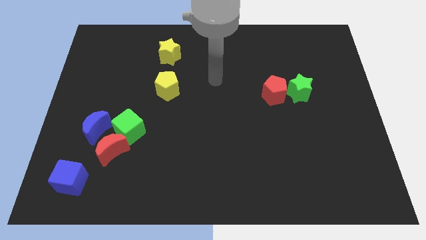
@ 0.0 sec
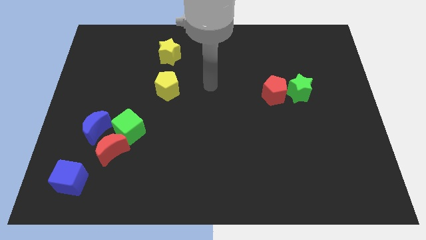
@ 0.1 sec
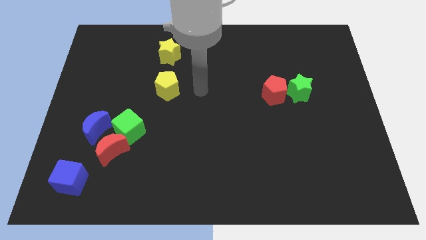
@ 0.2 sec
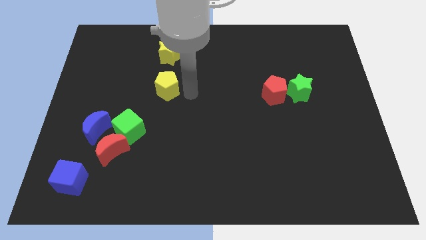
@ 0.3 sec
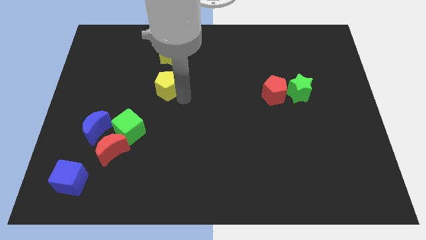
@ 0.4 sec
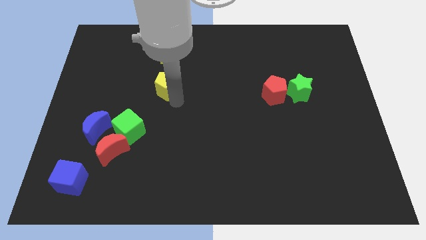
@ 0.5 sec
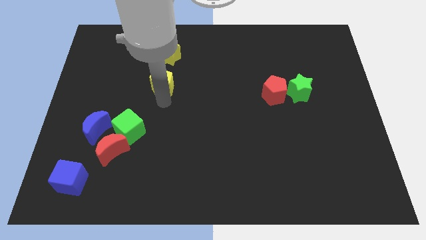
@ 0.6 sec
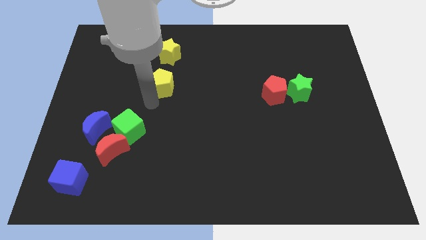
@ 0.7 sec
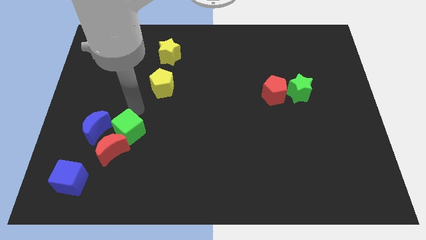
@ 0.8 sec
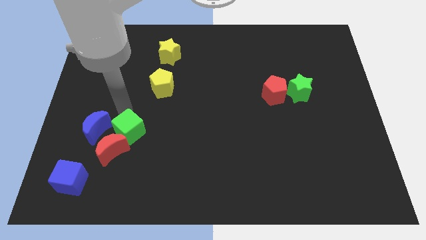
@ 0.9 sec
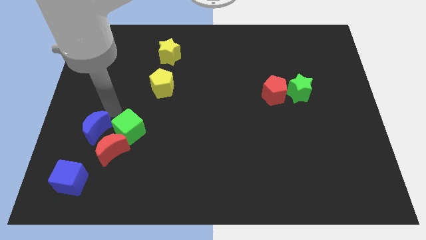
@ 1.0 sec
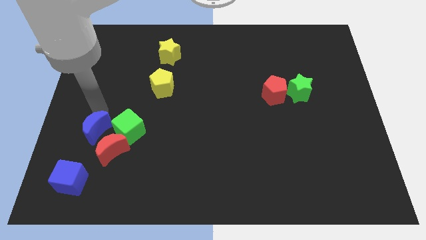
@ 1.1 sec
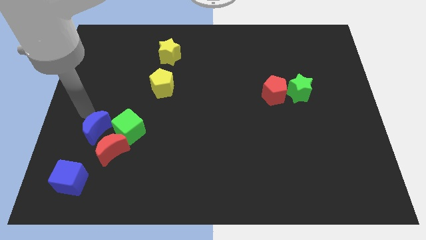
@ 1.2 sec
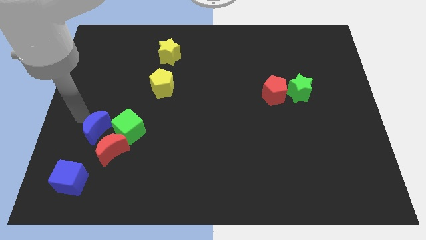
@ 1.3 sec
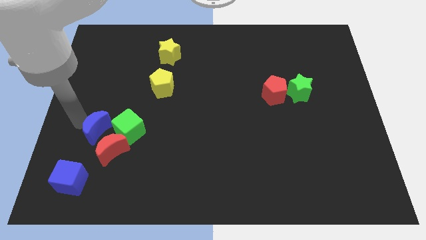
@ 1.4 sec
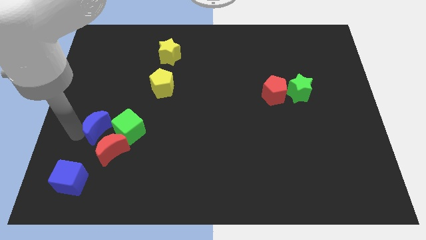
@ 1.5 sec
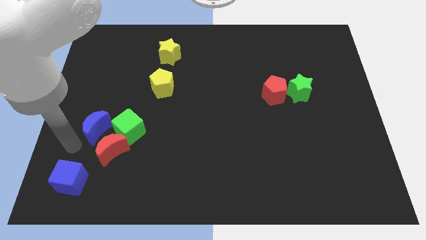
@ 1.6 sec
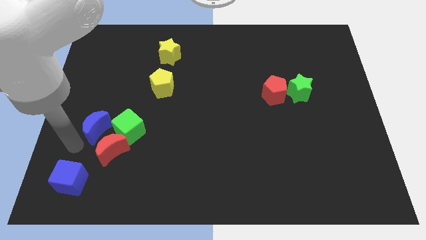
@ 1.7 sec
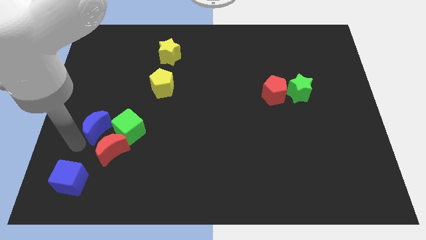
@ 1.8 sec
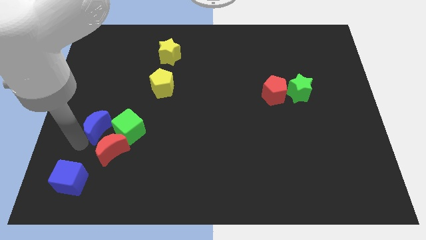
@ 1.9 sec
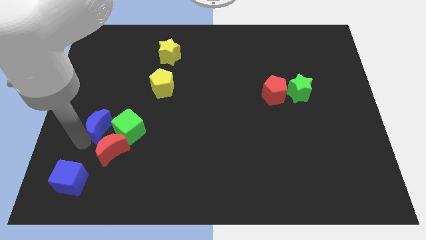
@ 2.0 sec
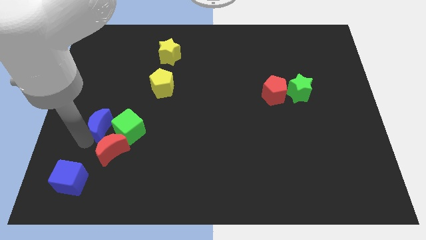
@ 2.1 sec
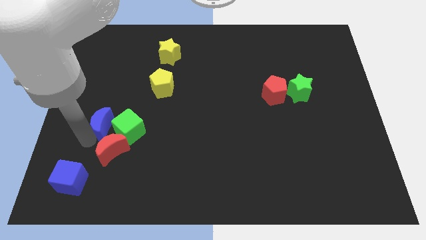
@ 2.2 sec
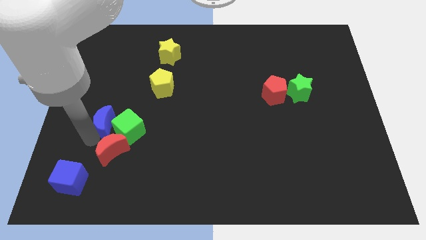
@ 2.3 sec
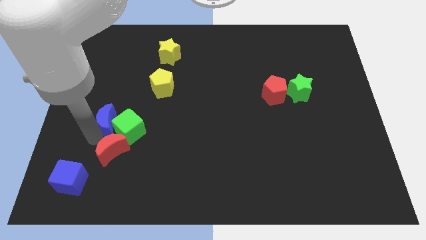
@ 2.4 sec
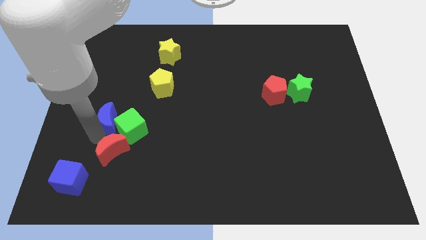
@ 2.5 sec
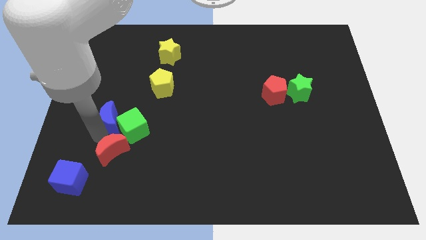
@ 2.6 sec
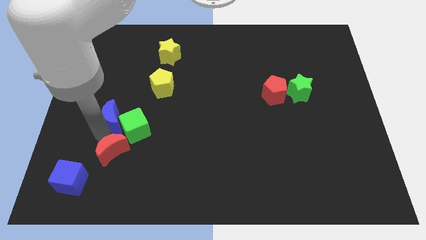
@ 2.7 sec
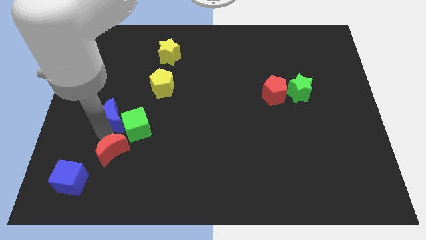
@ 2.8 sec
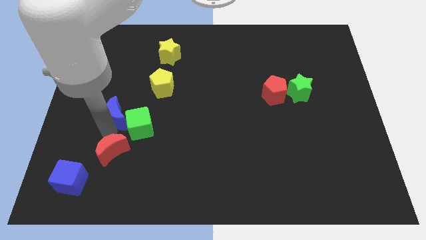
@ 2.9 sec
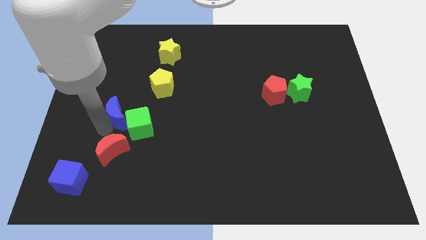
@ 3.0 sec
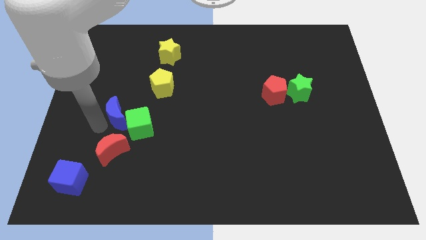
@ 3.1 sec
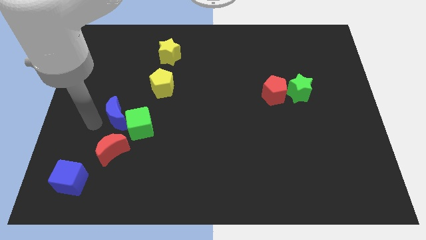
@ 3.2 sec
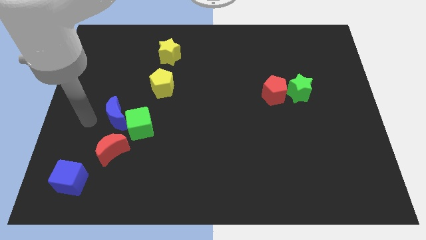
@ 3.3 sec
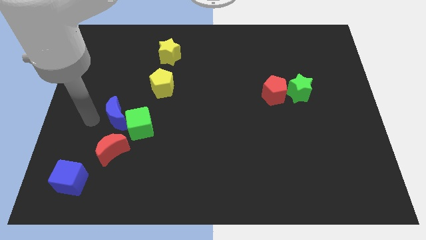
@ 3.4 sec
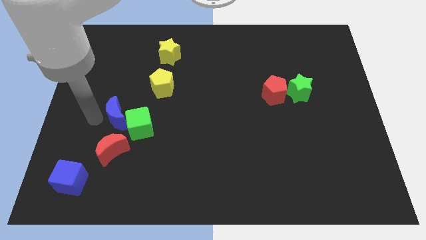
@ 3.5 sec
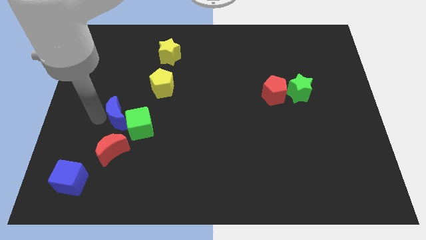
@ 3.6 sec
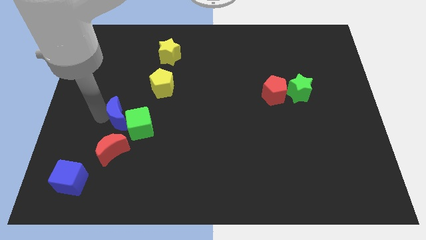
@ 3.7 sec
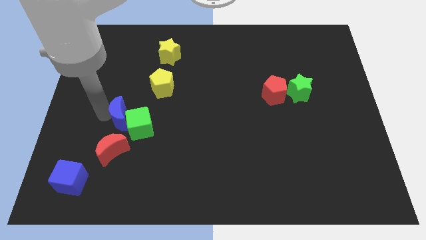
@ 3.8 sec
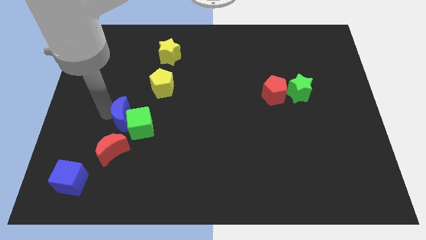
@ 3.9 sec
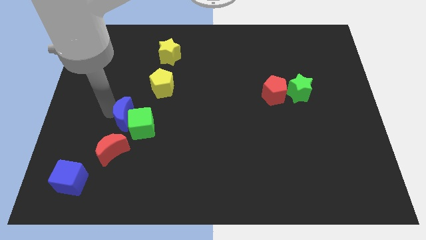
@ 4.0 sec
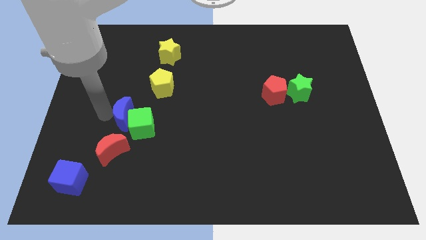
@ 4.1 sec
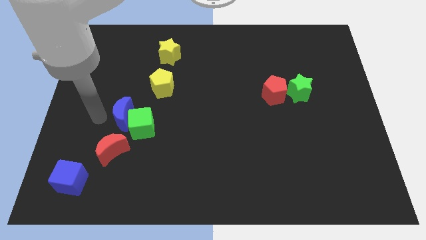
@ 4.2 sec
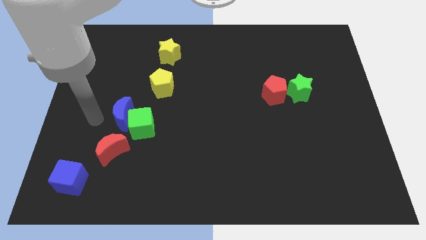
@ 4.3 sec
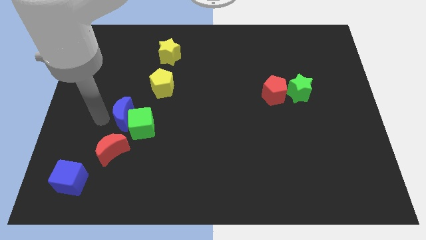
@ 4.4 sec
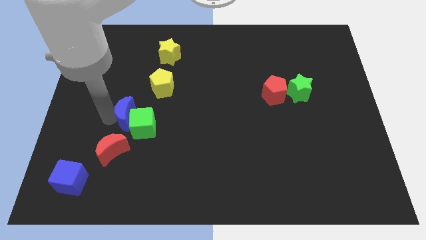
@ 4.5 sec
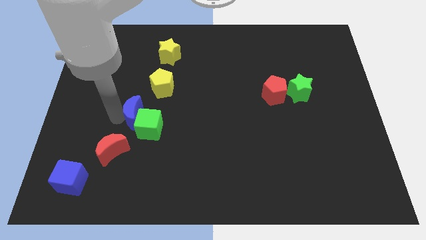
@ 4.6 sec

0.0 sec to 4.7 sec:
slightly move the blue moon right

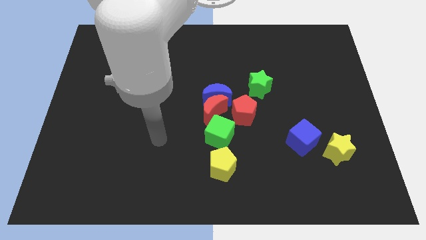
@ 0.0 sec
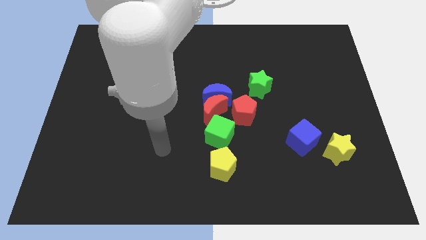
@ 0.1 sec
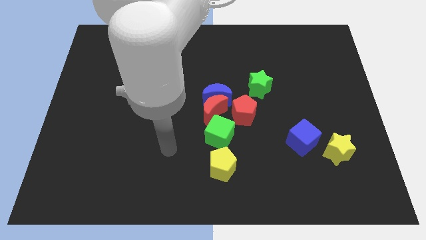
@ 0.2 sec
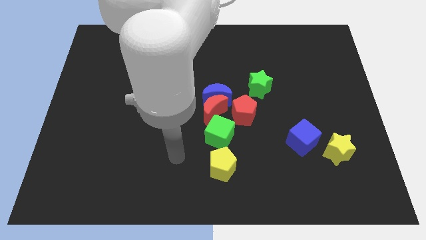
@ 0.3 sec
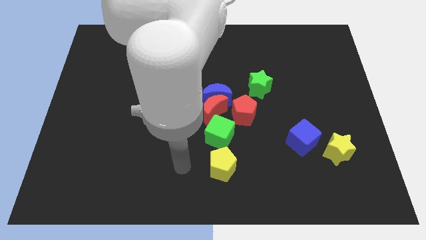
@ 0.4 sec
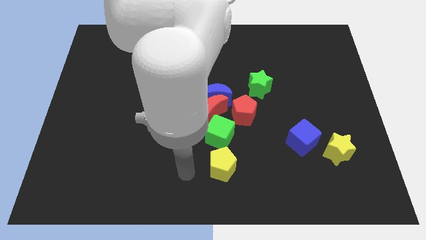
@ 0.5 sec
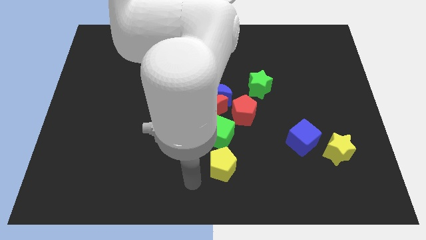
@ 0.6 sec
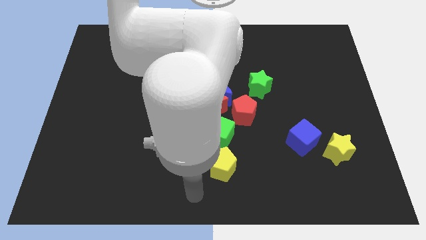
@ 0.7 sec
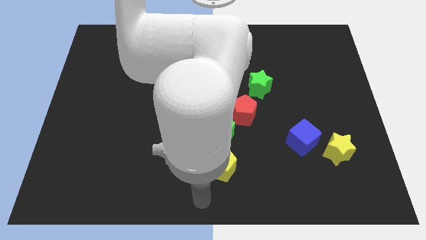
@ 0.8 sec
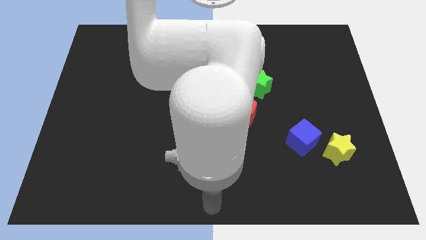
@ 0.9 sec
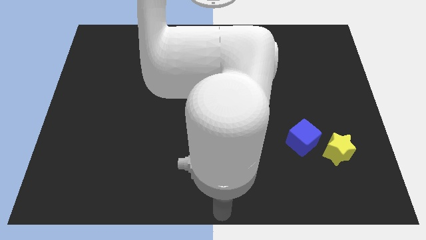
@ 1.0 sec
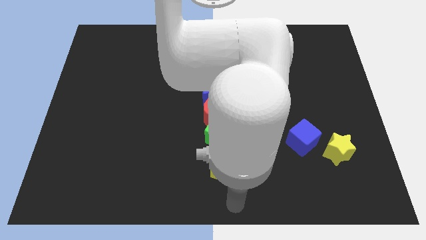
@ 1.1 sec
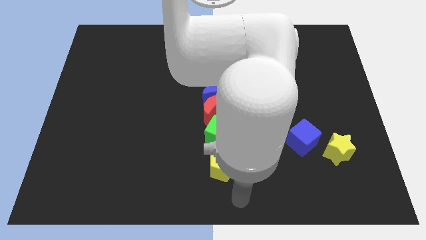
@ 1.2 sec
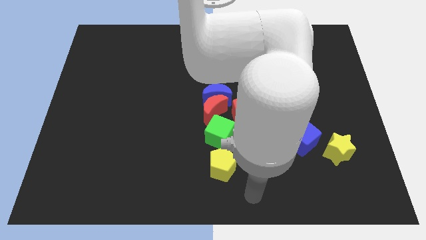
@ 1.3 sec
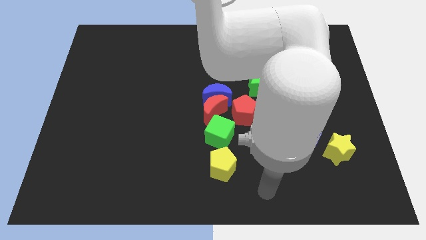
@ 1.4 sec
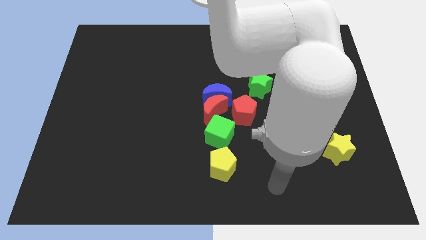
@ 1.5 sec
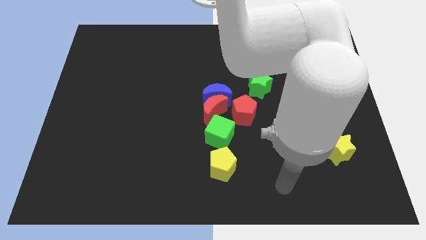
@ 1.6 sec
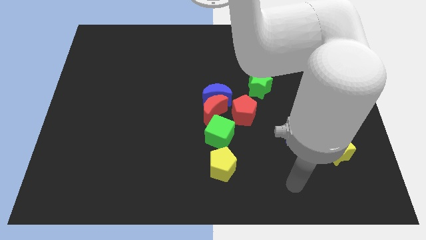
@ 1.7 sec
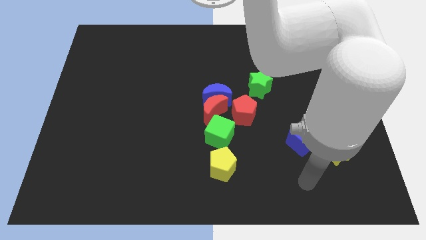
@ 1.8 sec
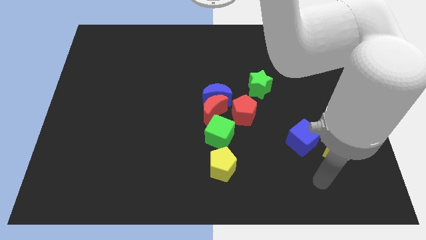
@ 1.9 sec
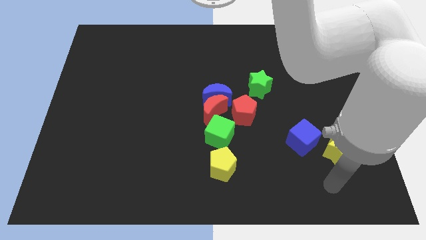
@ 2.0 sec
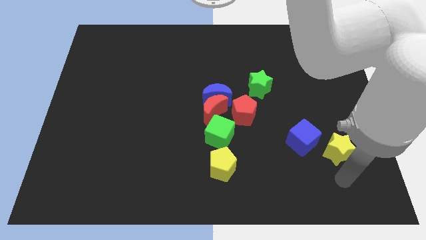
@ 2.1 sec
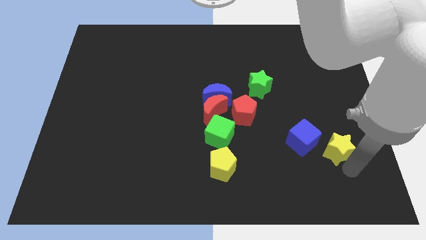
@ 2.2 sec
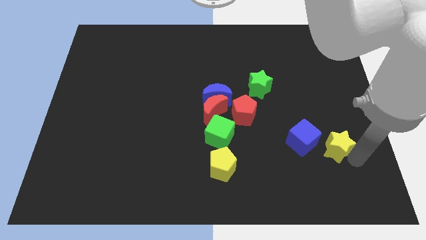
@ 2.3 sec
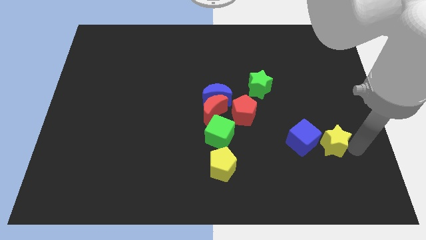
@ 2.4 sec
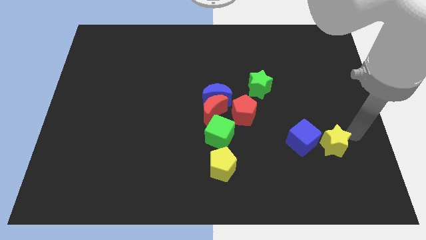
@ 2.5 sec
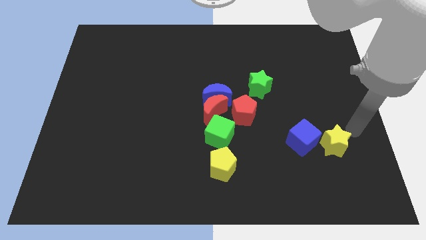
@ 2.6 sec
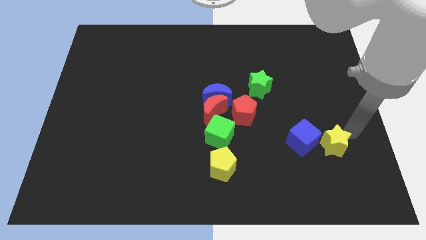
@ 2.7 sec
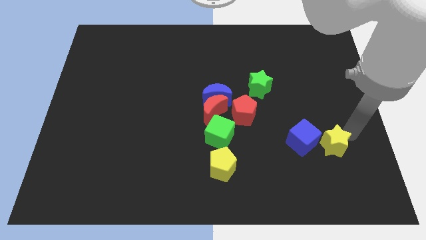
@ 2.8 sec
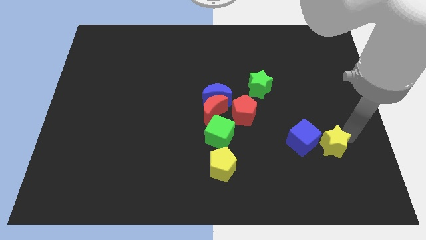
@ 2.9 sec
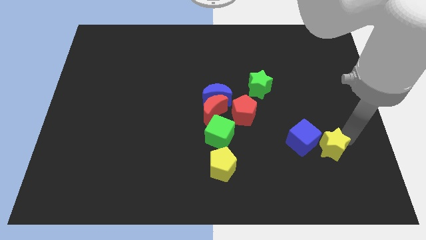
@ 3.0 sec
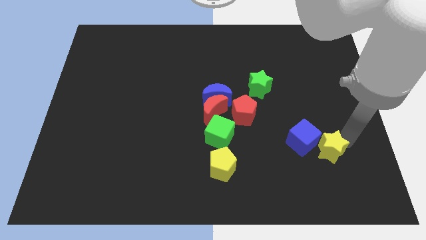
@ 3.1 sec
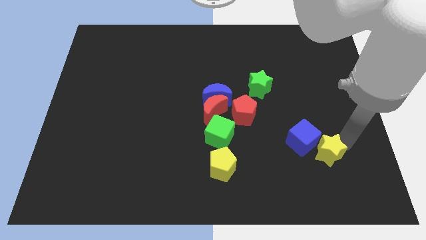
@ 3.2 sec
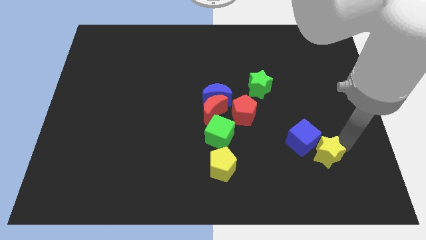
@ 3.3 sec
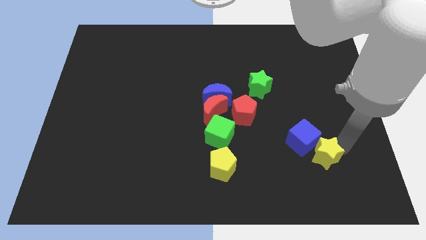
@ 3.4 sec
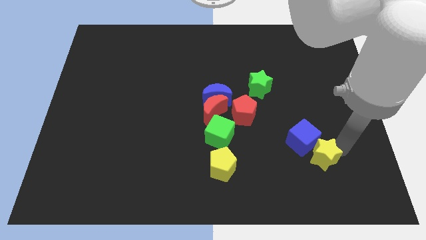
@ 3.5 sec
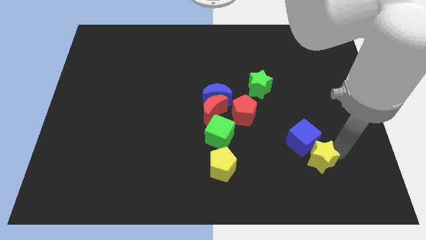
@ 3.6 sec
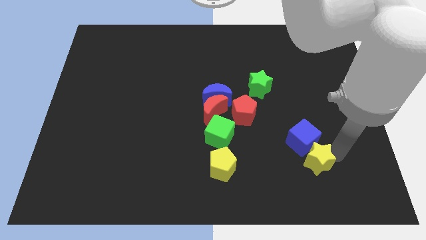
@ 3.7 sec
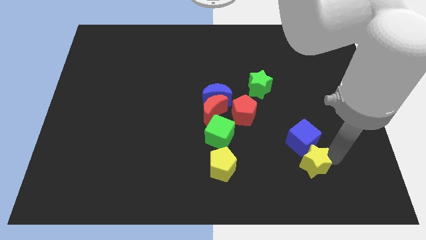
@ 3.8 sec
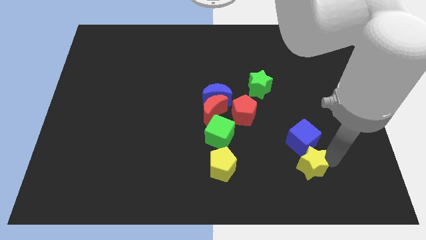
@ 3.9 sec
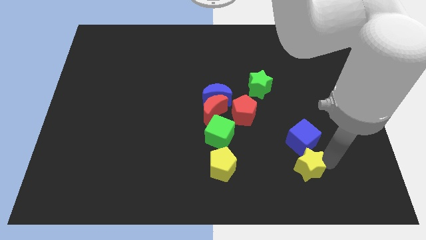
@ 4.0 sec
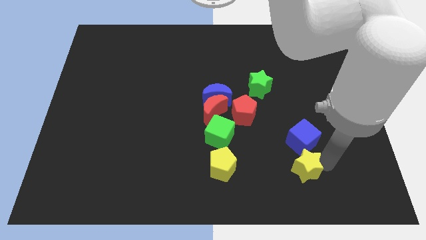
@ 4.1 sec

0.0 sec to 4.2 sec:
push the yellow star a little left
